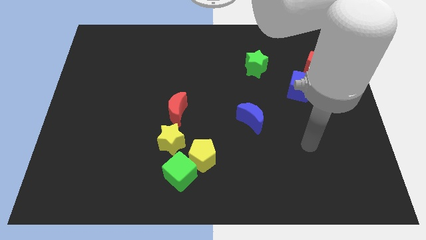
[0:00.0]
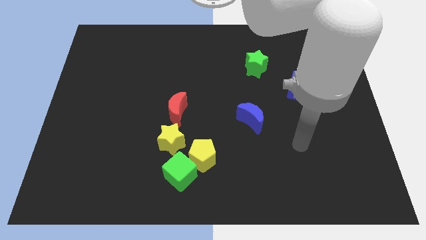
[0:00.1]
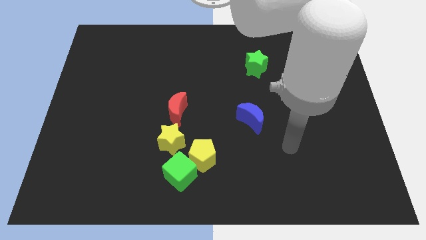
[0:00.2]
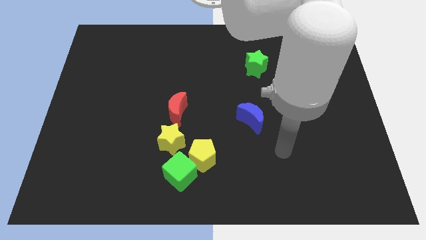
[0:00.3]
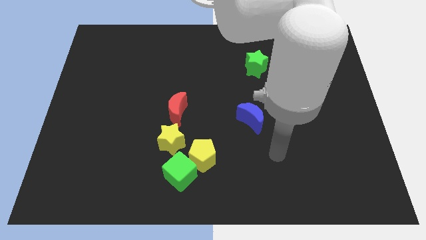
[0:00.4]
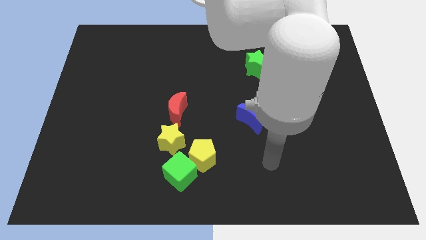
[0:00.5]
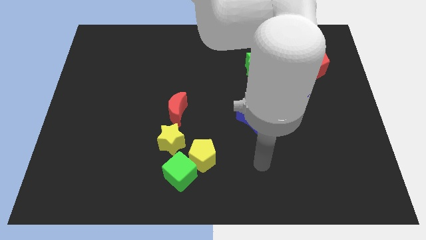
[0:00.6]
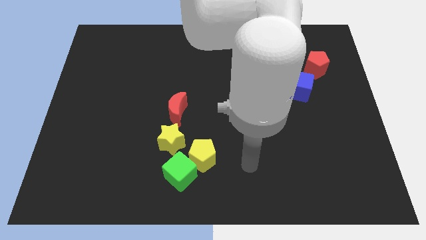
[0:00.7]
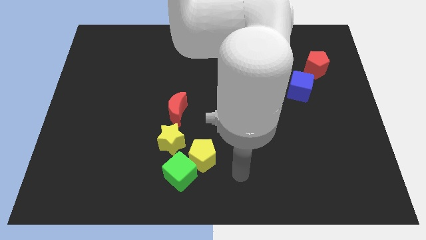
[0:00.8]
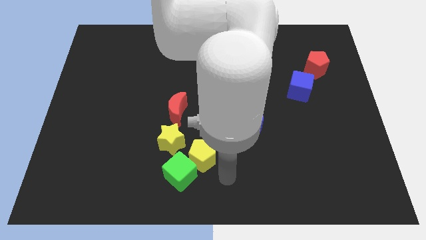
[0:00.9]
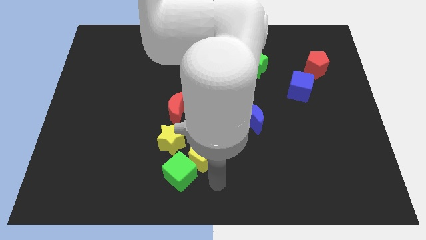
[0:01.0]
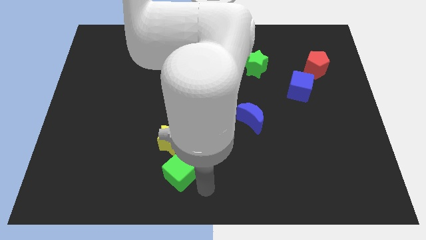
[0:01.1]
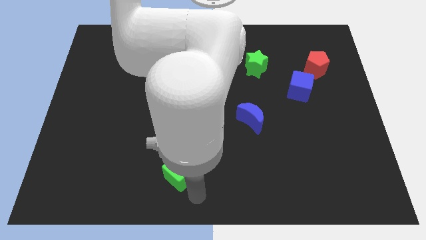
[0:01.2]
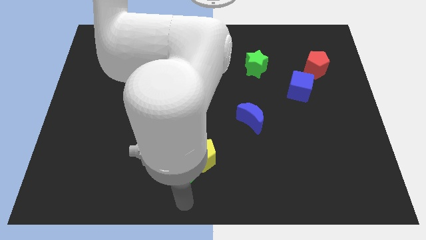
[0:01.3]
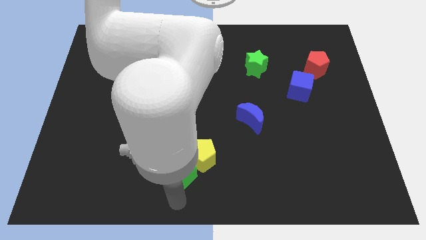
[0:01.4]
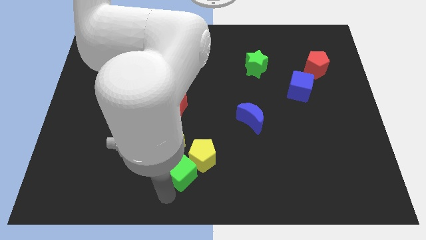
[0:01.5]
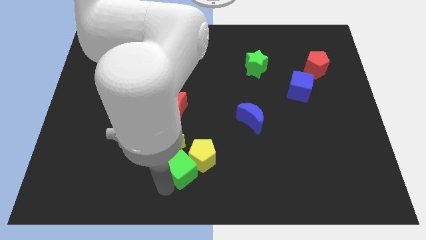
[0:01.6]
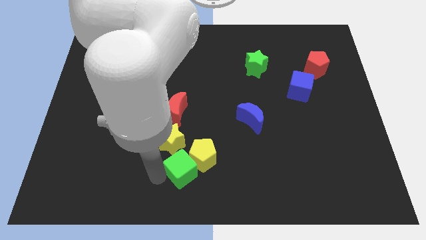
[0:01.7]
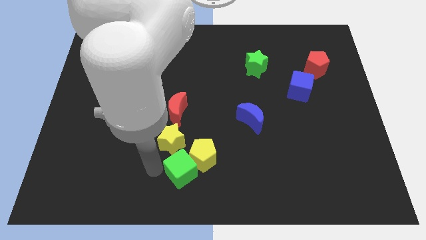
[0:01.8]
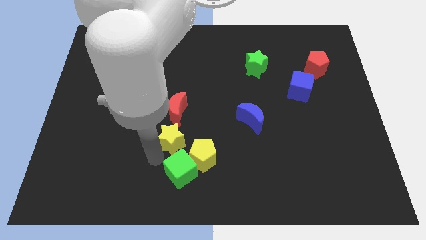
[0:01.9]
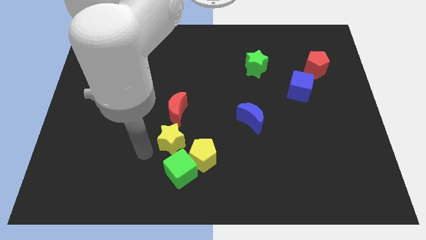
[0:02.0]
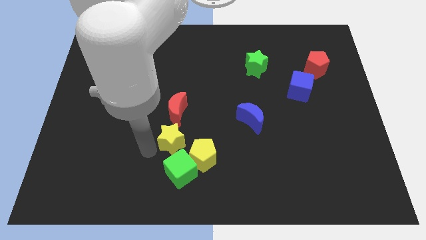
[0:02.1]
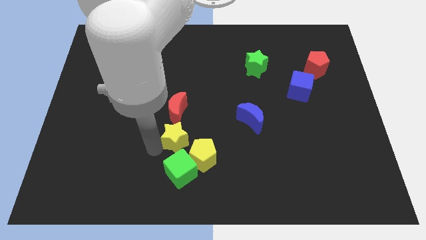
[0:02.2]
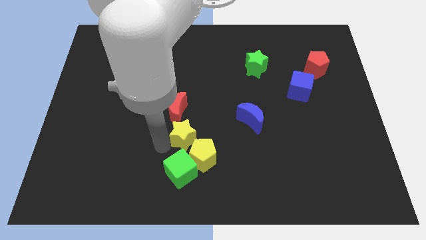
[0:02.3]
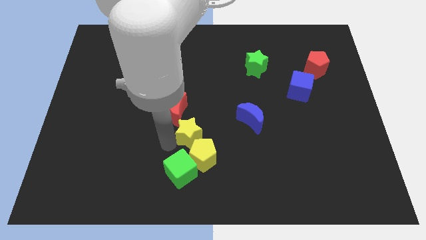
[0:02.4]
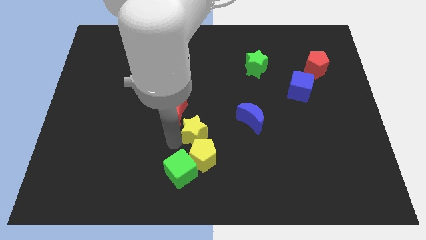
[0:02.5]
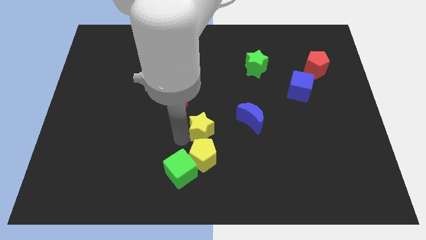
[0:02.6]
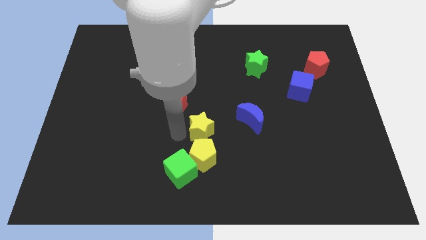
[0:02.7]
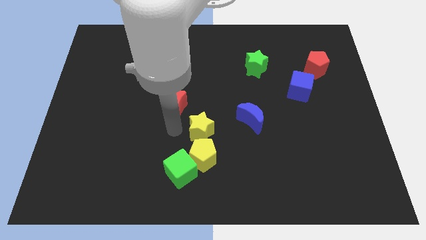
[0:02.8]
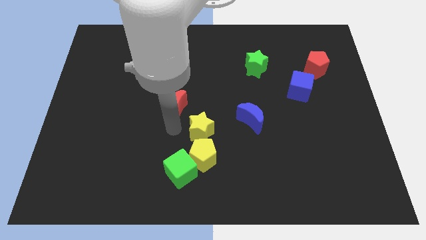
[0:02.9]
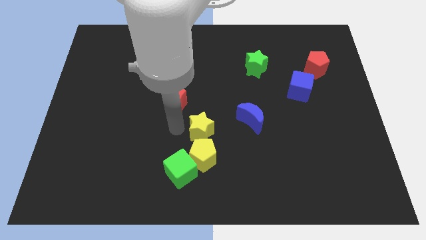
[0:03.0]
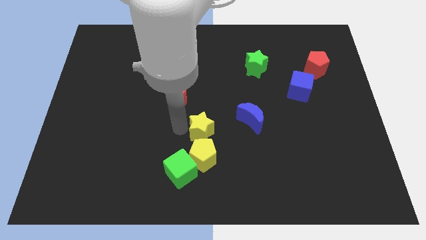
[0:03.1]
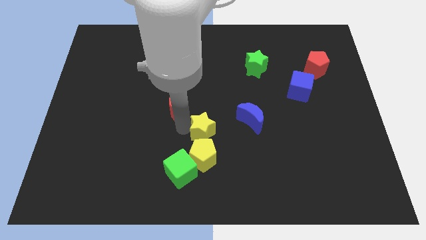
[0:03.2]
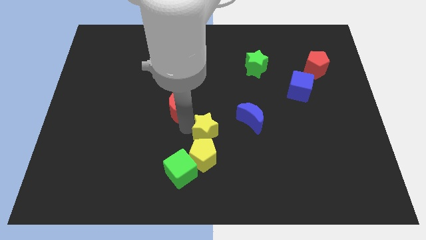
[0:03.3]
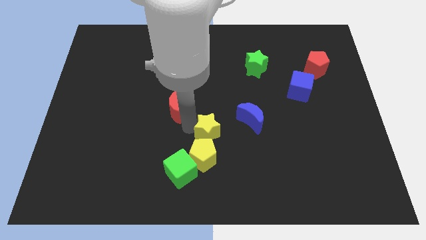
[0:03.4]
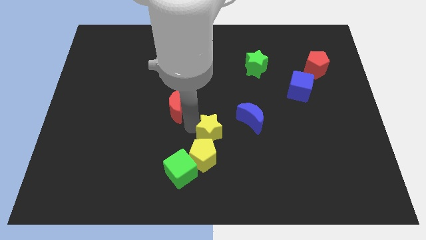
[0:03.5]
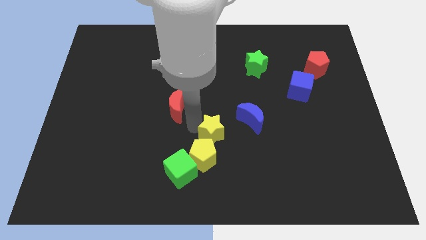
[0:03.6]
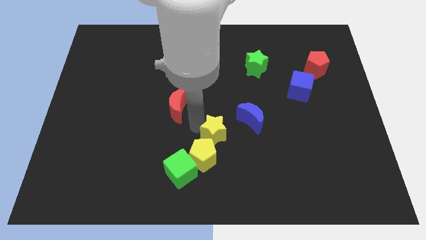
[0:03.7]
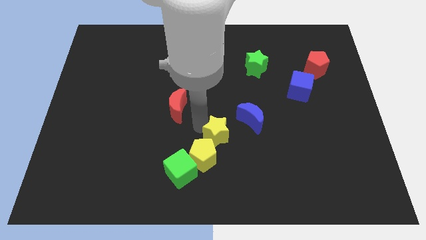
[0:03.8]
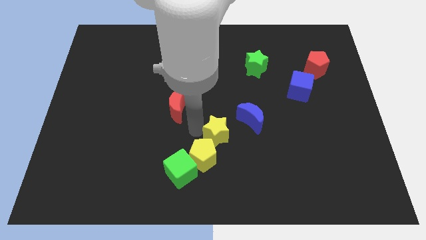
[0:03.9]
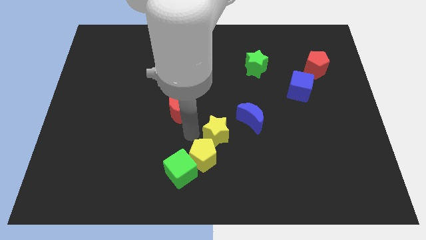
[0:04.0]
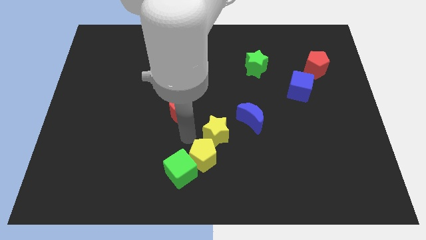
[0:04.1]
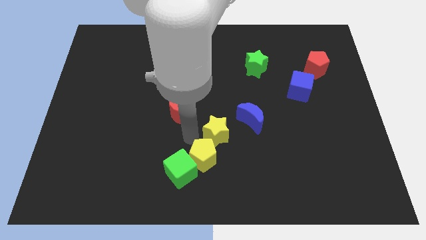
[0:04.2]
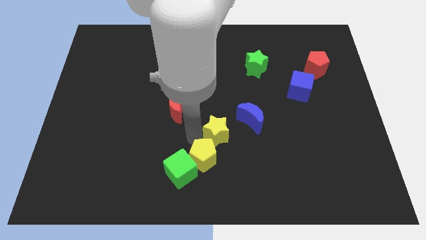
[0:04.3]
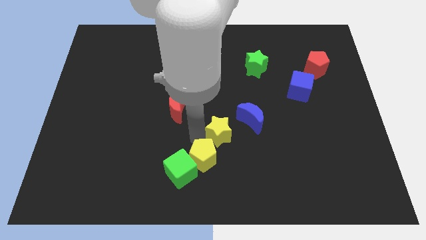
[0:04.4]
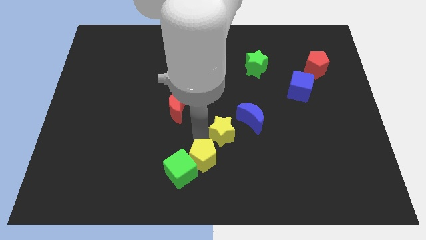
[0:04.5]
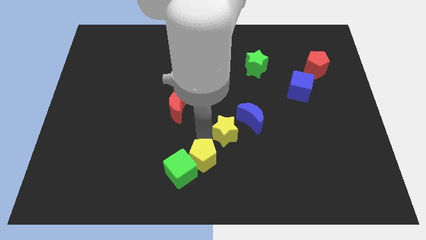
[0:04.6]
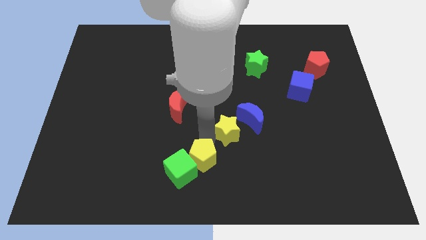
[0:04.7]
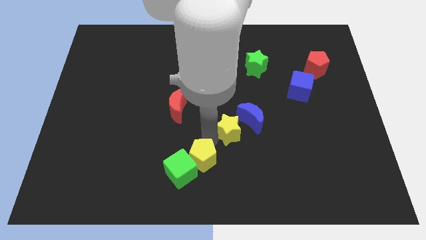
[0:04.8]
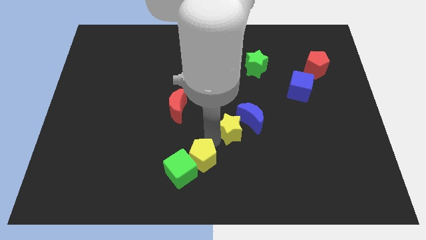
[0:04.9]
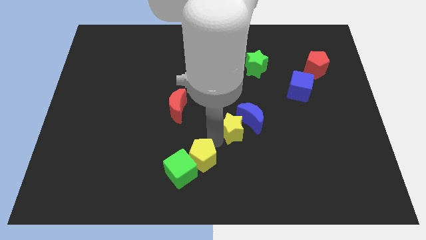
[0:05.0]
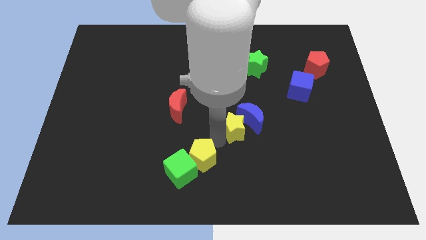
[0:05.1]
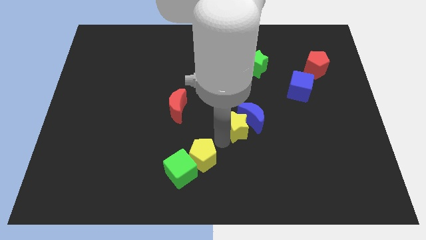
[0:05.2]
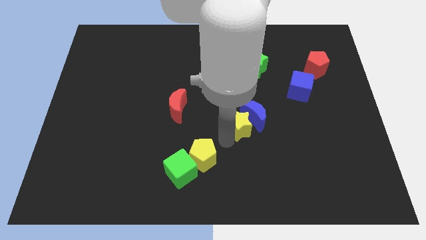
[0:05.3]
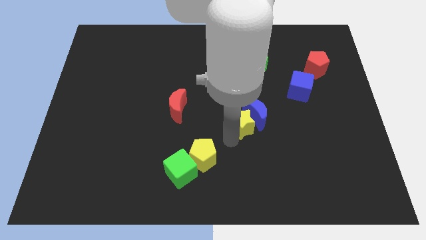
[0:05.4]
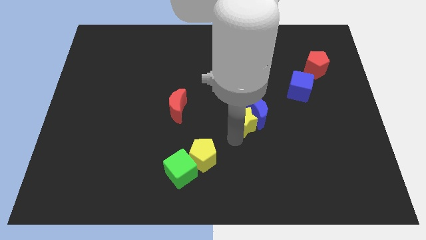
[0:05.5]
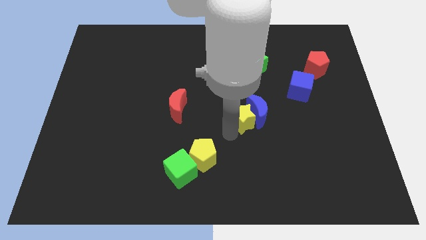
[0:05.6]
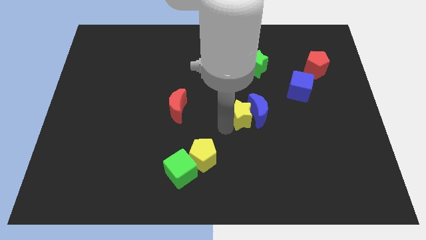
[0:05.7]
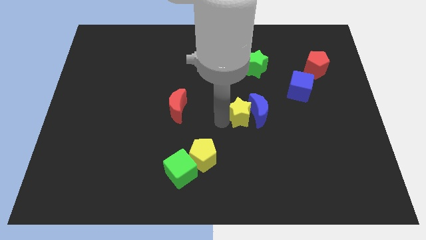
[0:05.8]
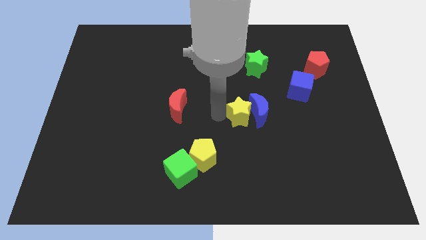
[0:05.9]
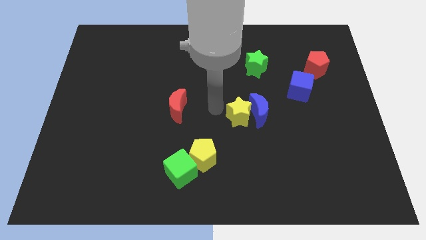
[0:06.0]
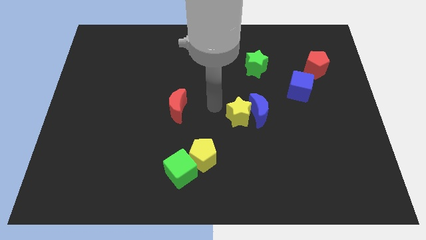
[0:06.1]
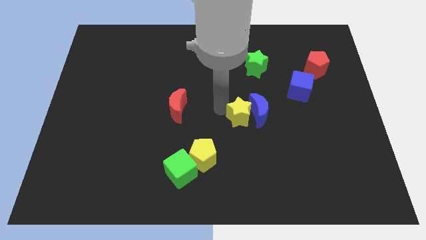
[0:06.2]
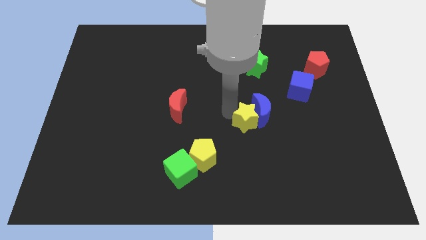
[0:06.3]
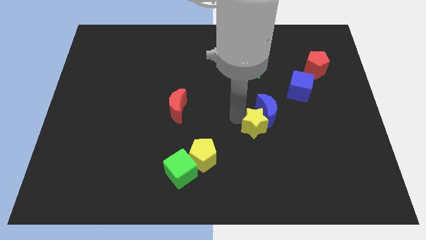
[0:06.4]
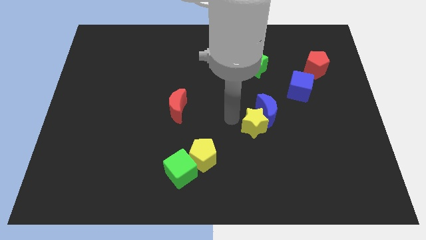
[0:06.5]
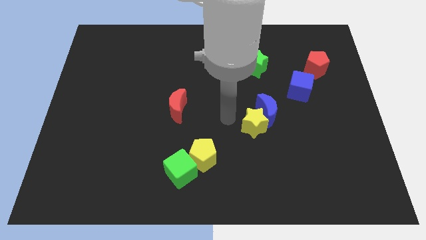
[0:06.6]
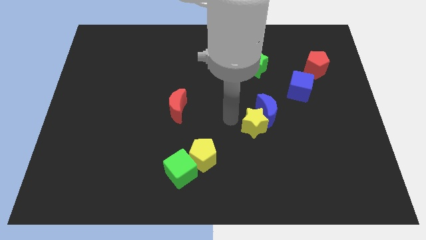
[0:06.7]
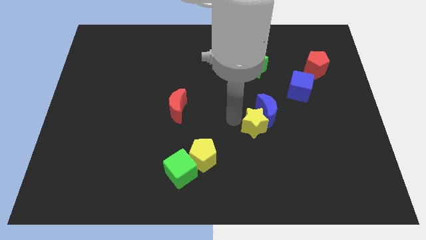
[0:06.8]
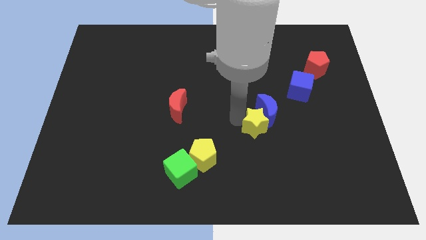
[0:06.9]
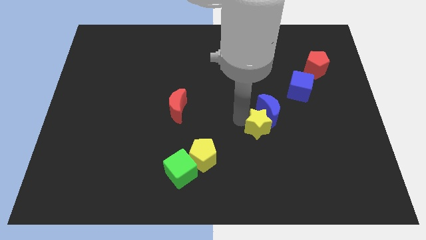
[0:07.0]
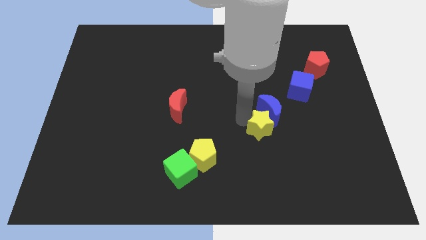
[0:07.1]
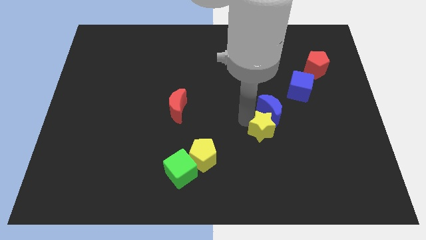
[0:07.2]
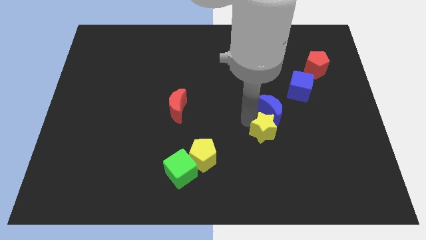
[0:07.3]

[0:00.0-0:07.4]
move the yellow star to the right

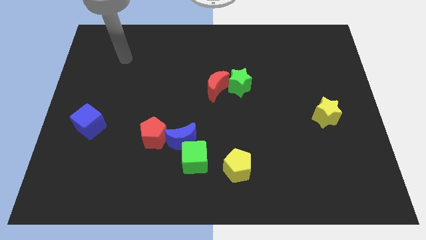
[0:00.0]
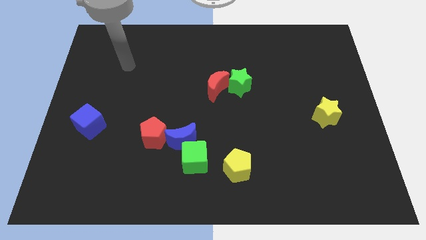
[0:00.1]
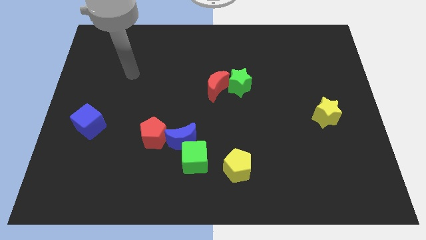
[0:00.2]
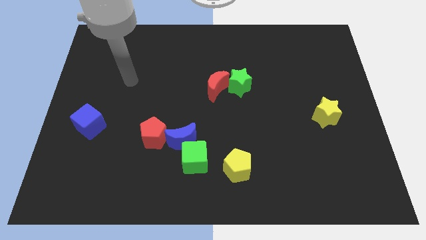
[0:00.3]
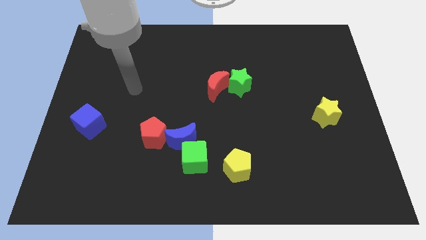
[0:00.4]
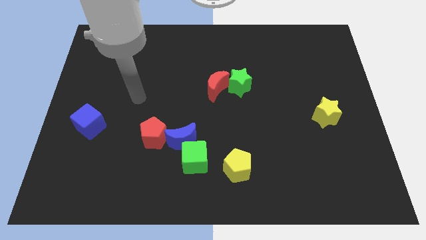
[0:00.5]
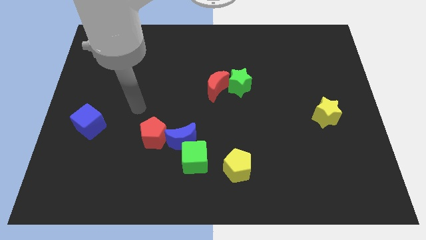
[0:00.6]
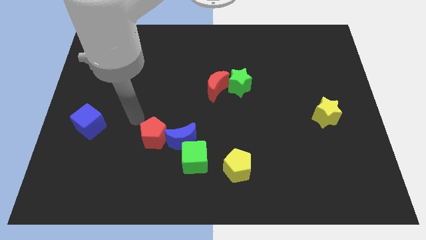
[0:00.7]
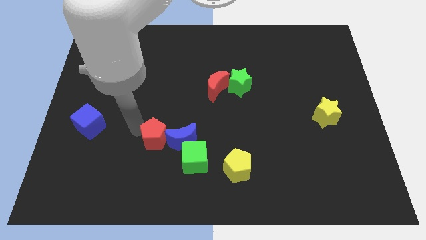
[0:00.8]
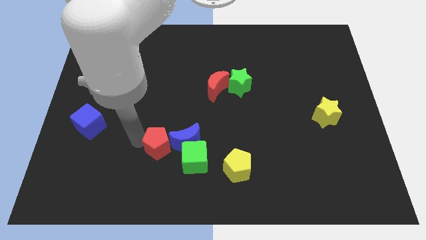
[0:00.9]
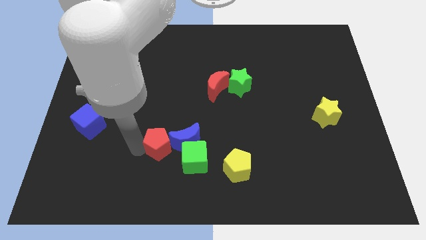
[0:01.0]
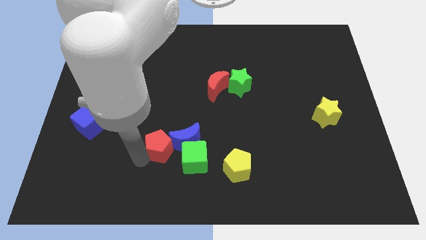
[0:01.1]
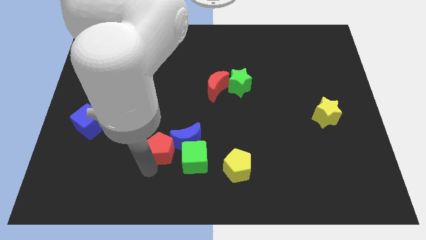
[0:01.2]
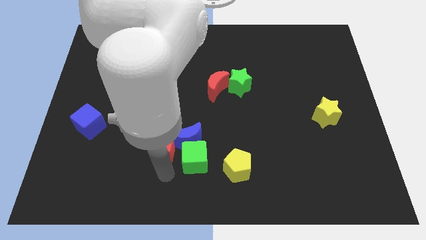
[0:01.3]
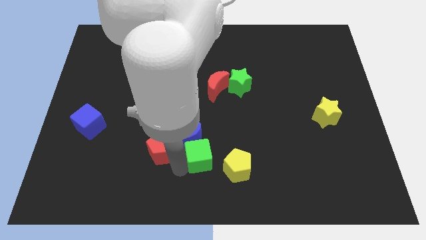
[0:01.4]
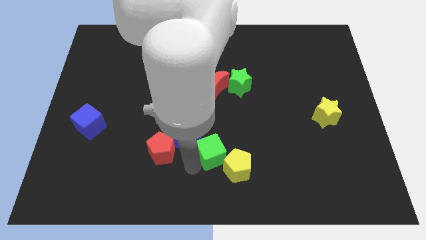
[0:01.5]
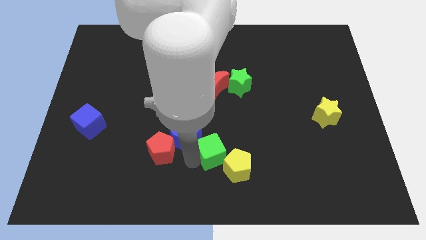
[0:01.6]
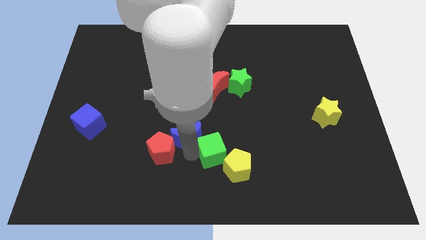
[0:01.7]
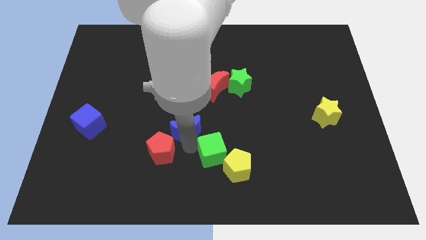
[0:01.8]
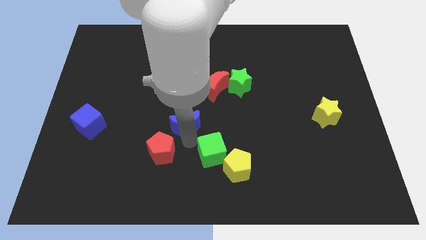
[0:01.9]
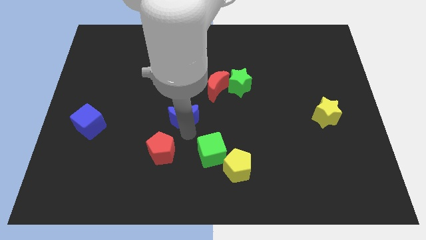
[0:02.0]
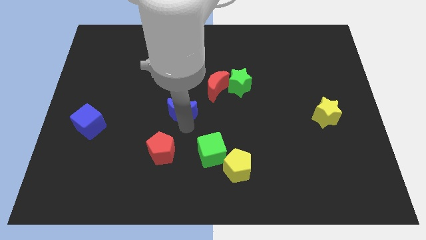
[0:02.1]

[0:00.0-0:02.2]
slide the blue moon upwards a little bit
